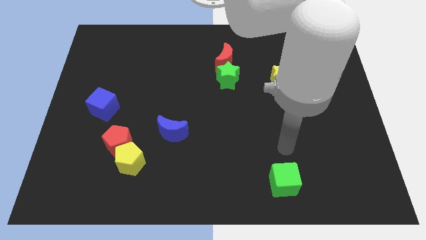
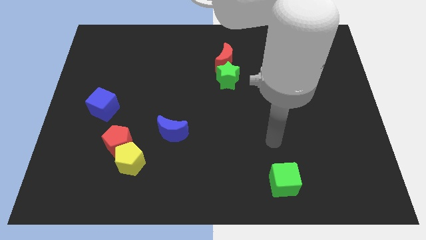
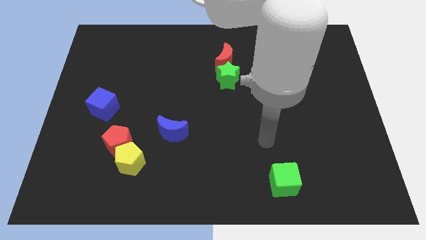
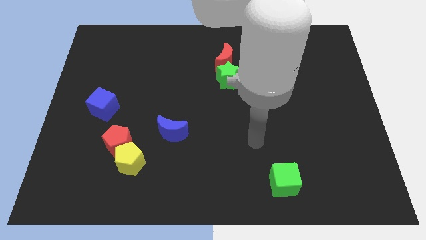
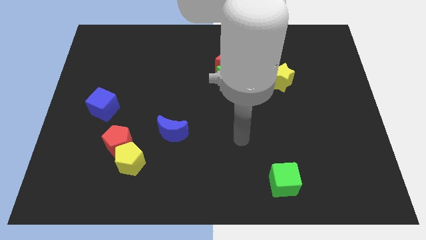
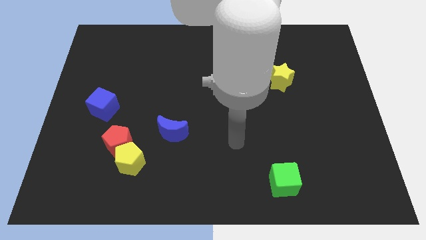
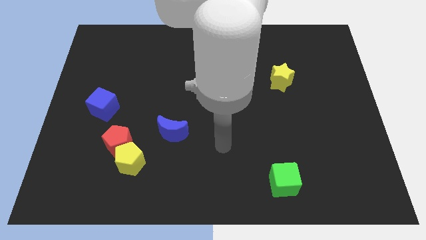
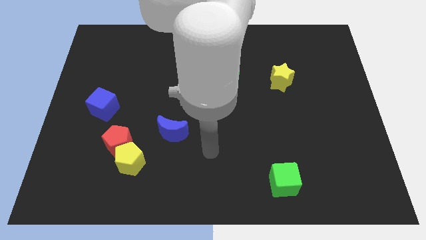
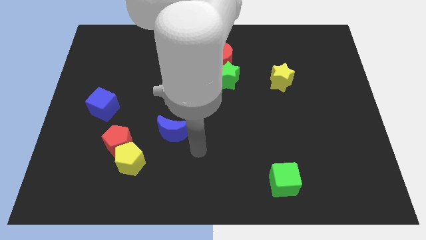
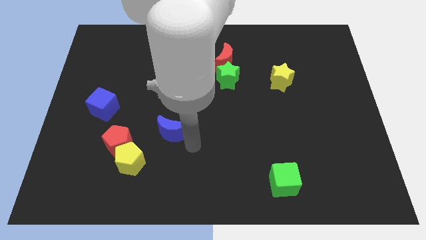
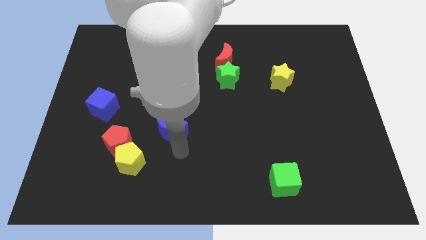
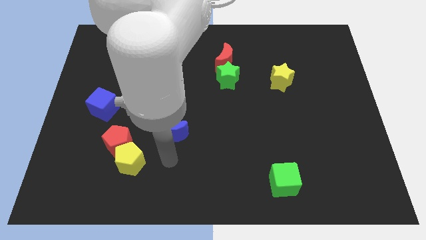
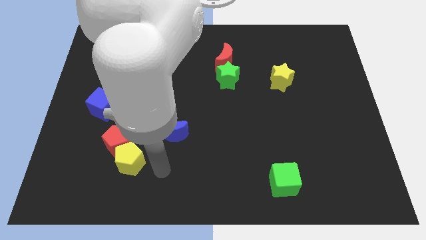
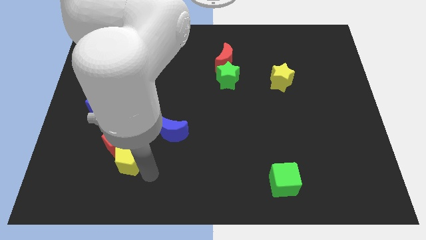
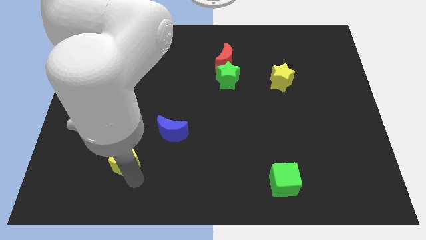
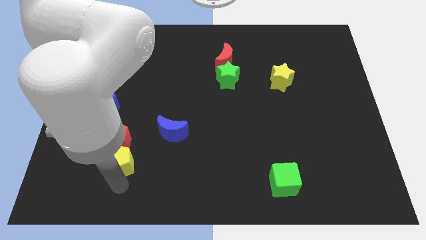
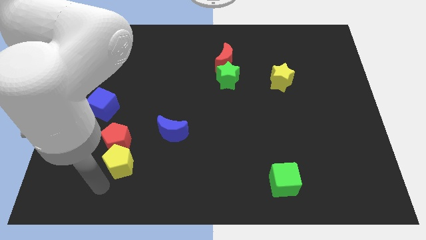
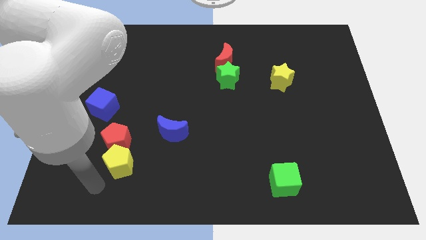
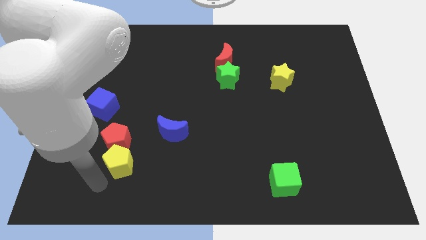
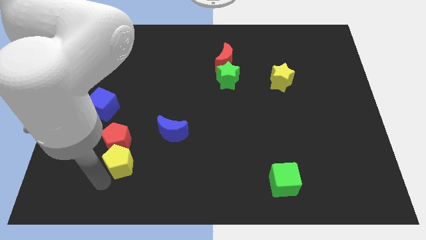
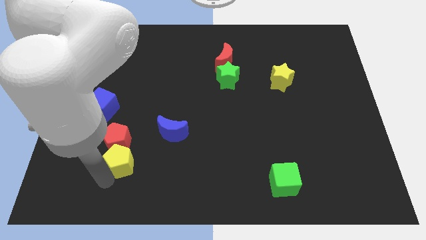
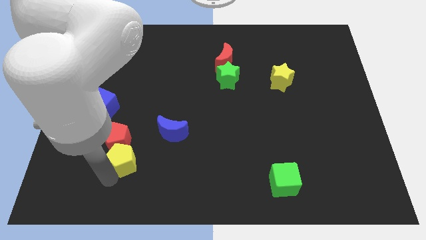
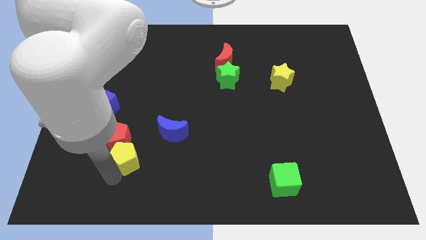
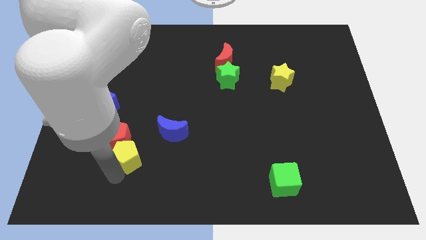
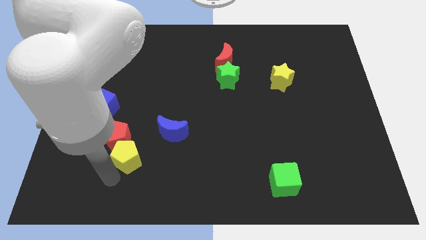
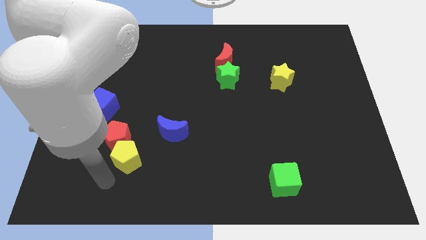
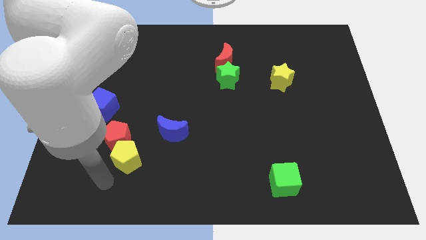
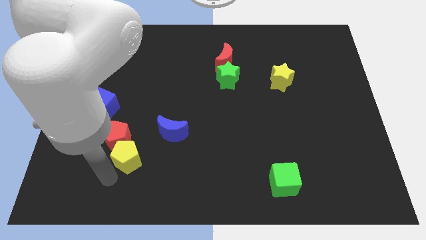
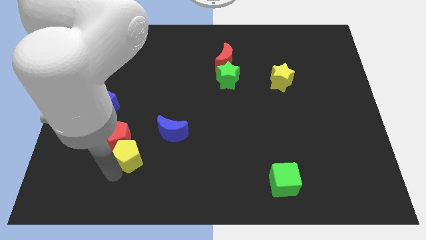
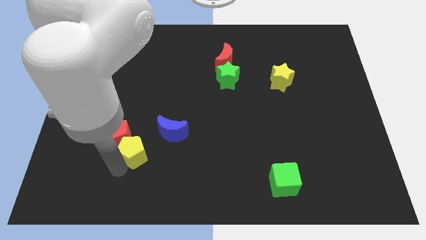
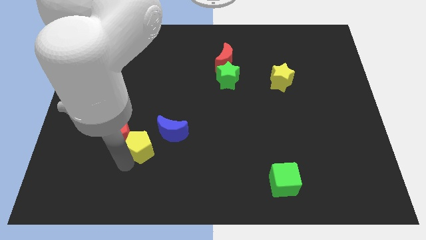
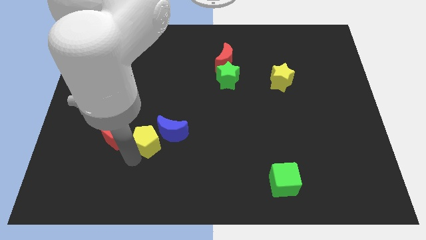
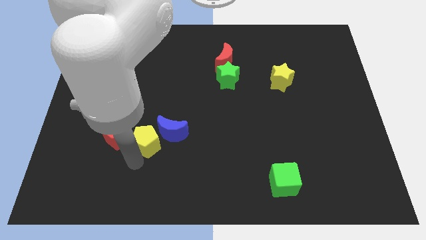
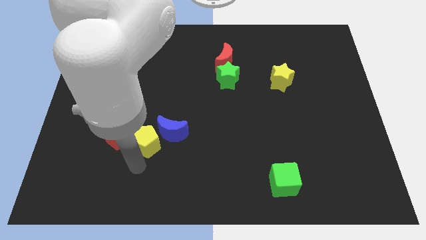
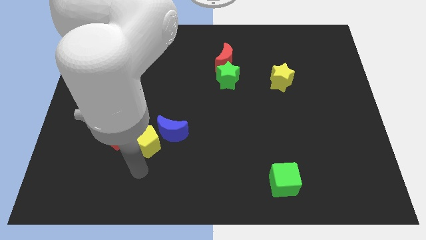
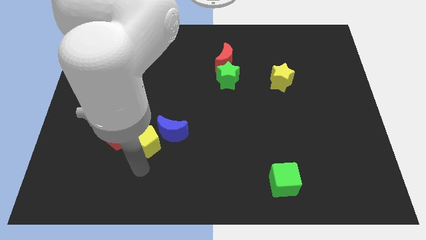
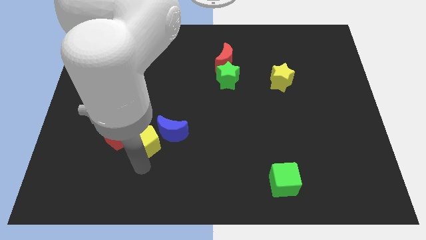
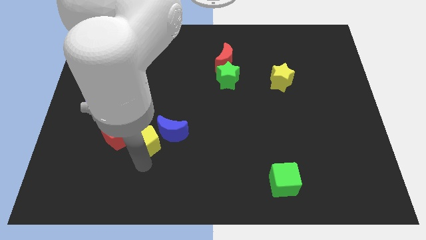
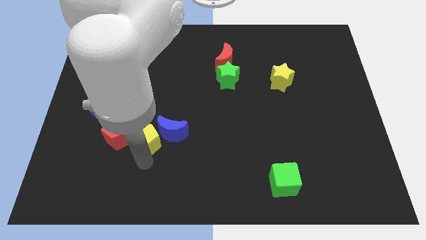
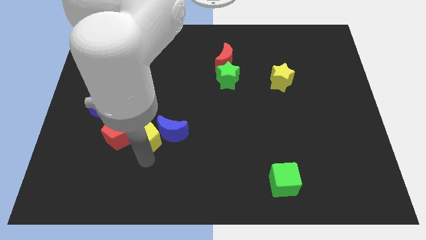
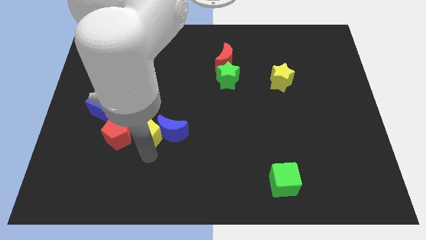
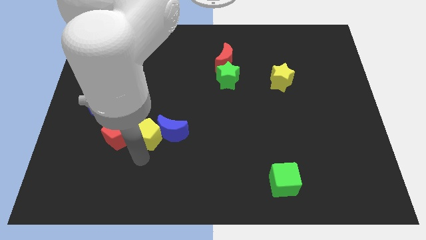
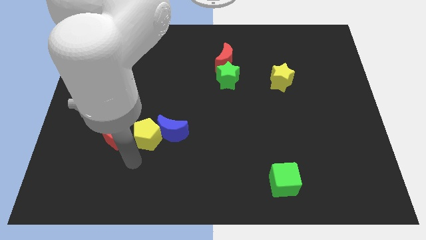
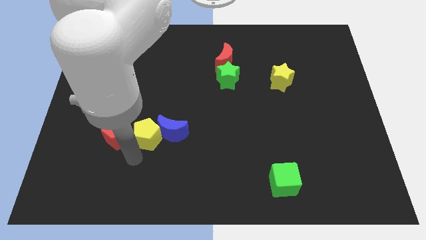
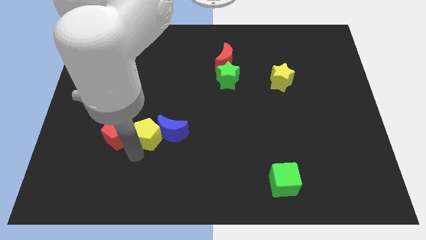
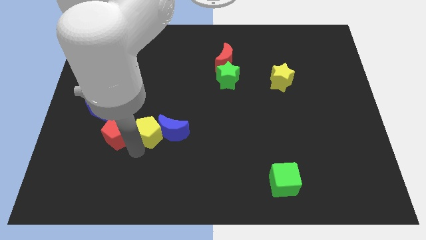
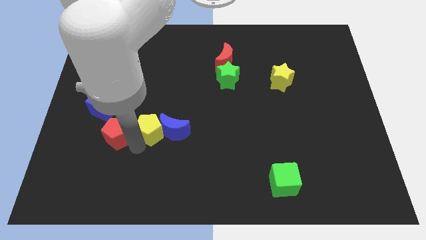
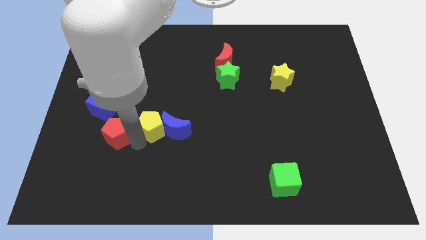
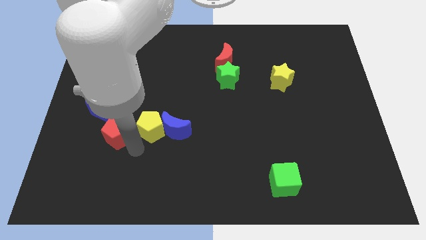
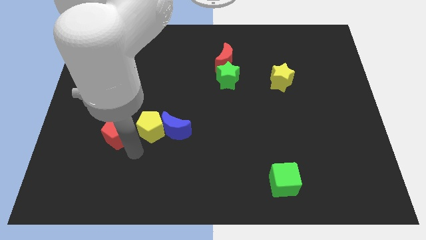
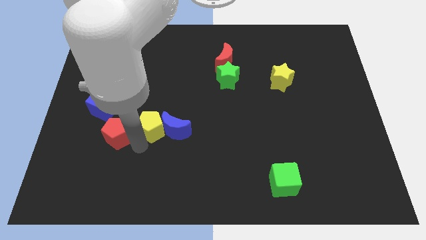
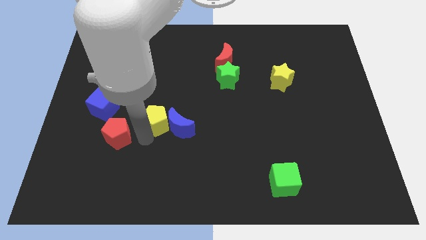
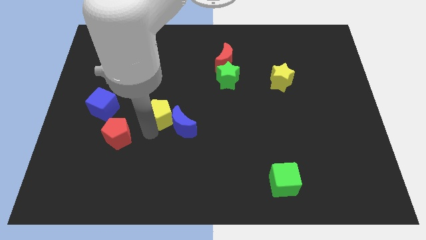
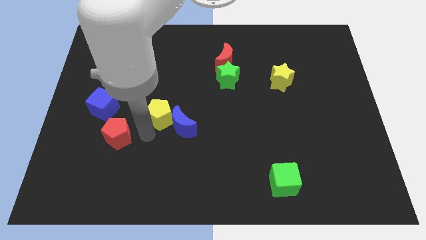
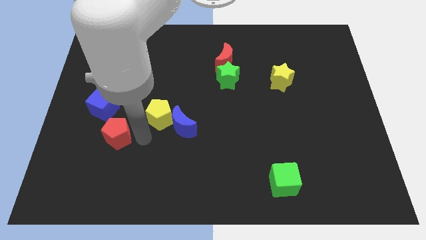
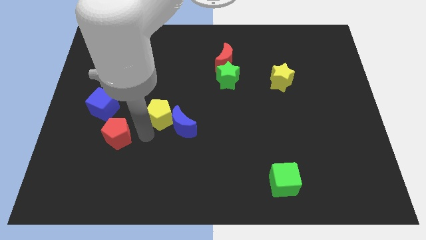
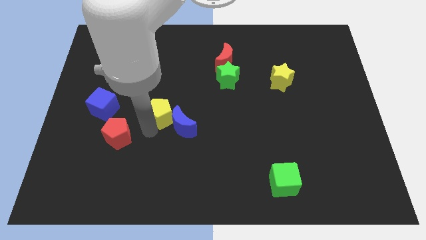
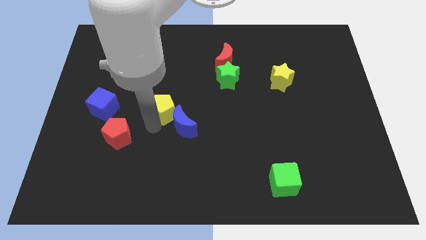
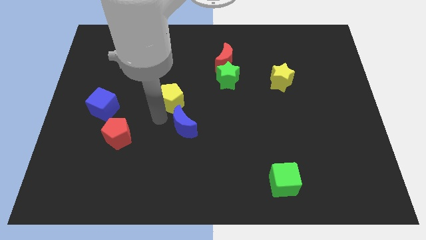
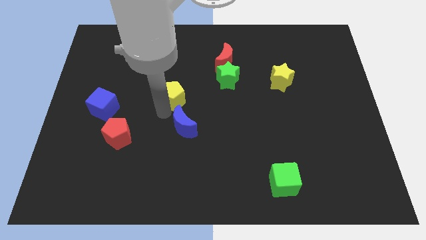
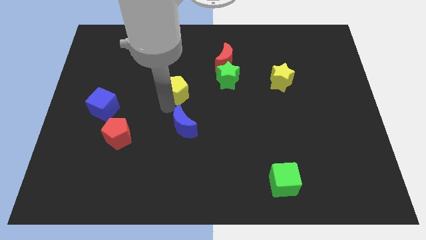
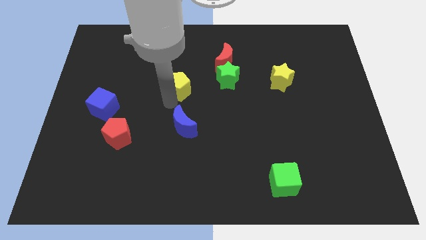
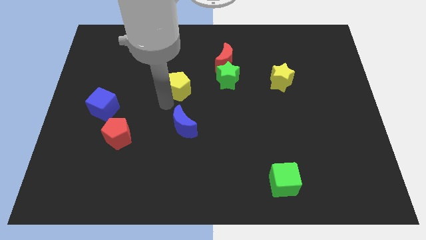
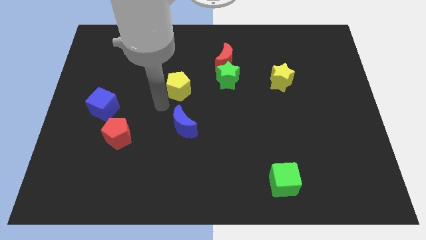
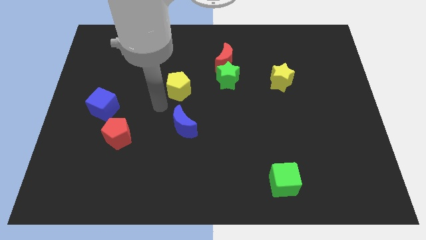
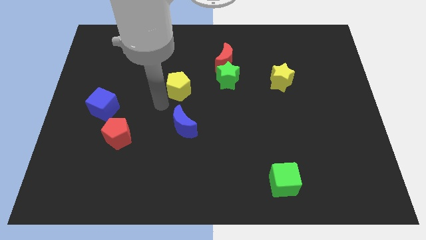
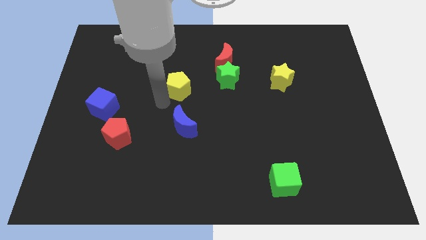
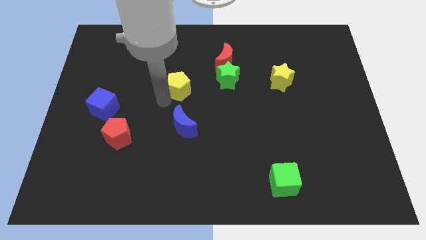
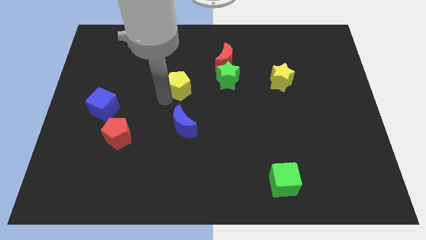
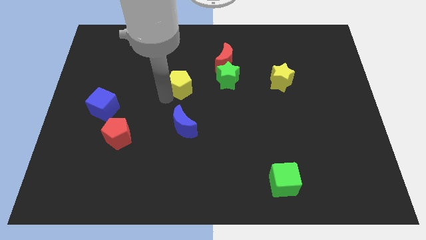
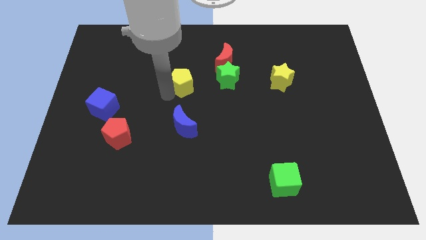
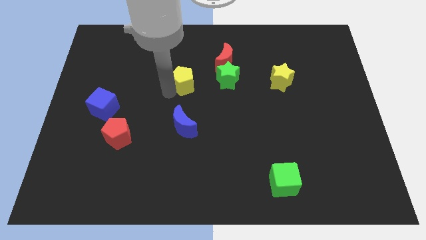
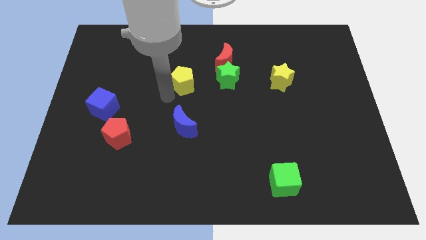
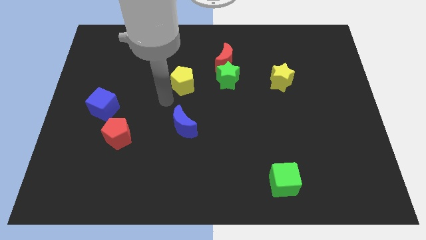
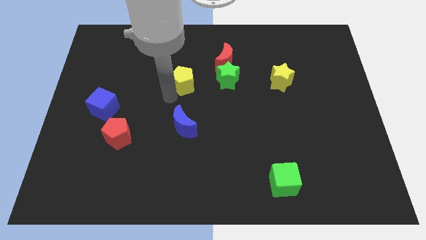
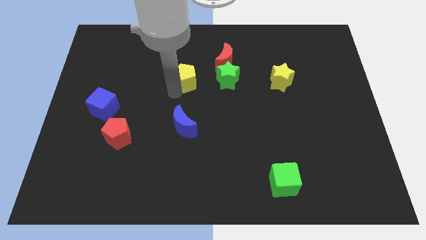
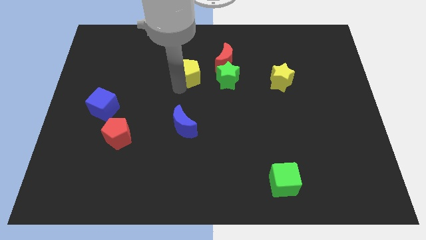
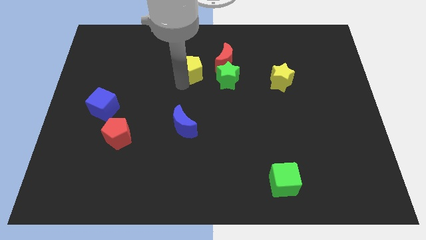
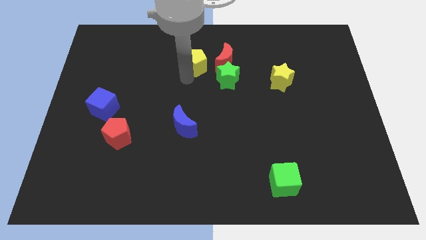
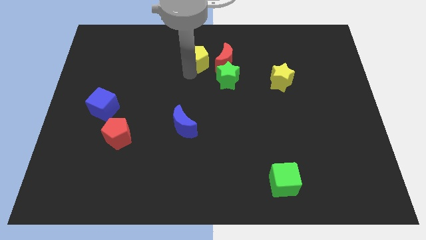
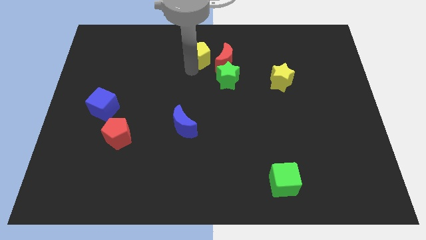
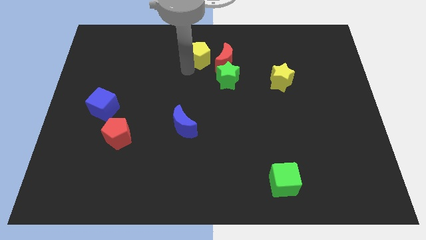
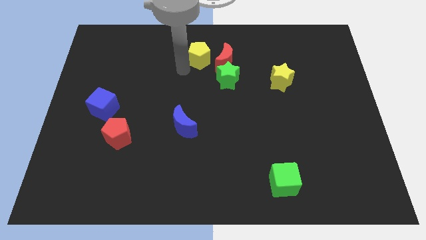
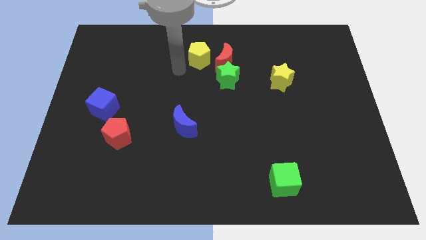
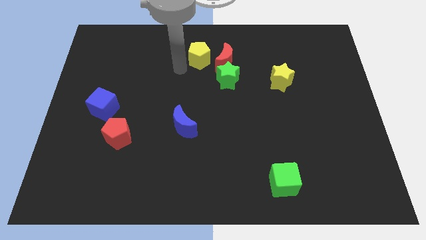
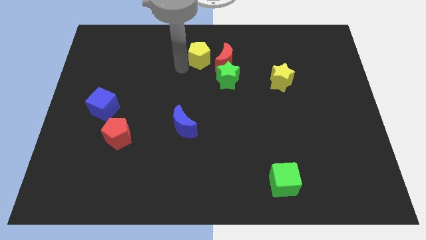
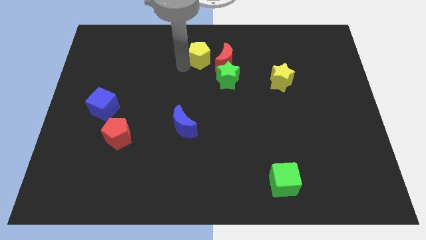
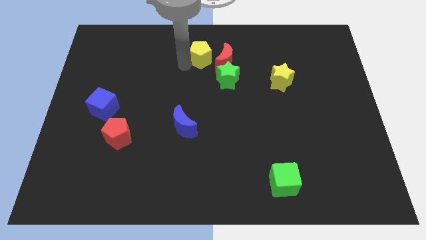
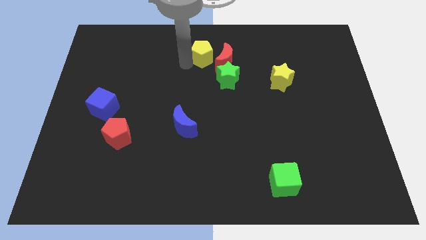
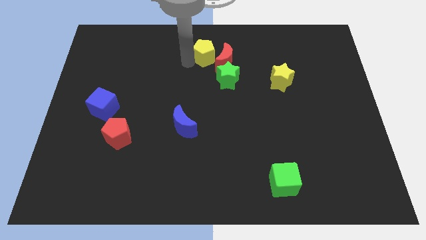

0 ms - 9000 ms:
push the yellow pentagon to the top side
